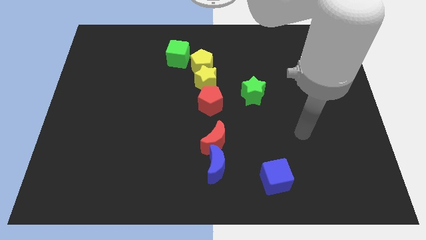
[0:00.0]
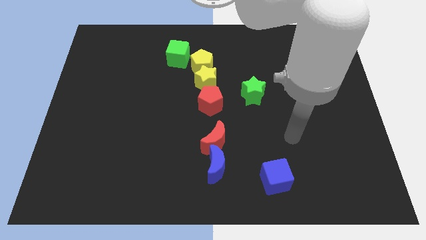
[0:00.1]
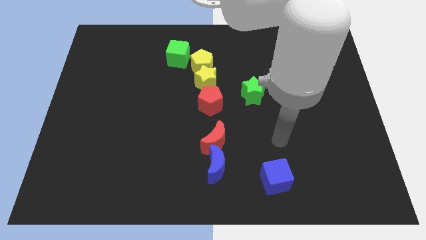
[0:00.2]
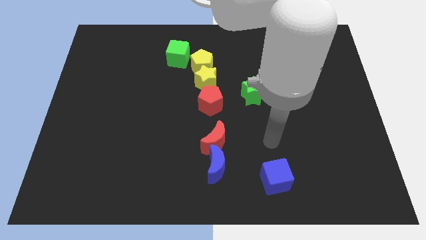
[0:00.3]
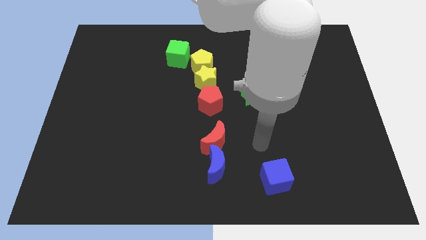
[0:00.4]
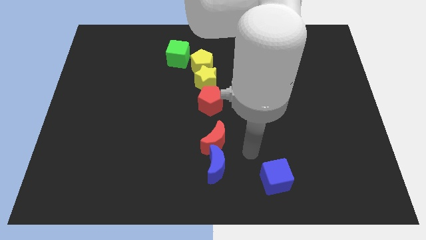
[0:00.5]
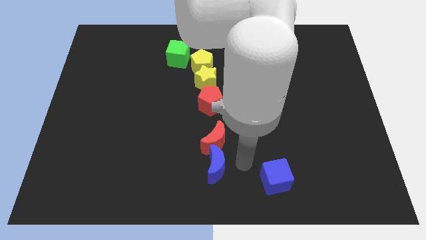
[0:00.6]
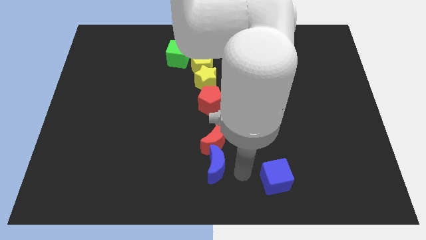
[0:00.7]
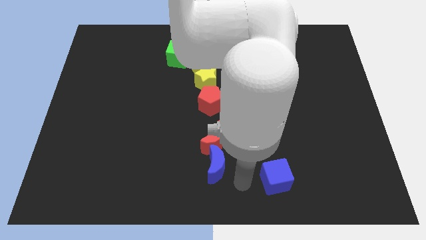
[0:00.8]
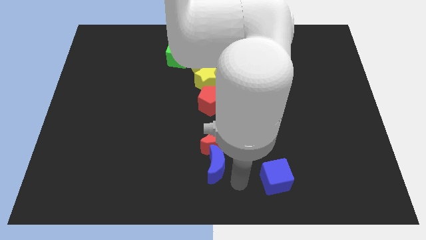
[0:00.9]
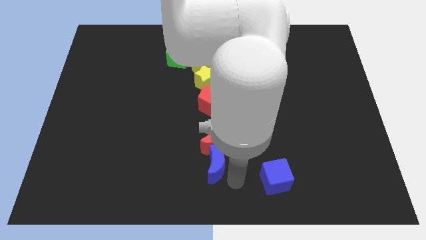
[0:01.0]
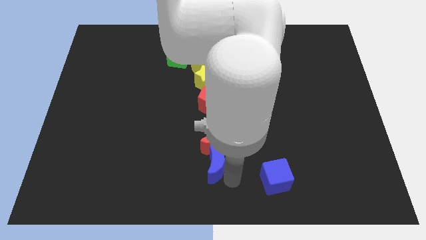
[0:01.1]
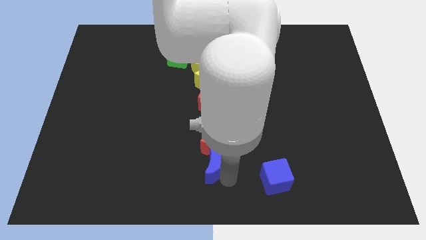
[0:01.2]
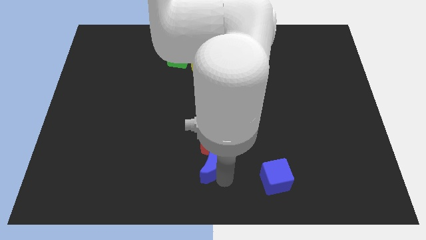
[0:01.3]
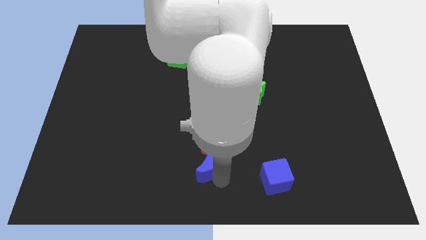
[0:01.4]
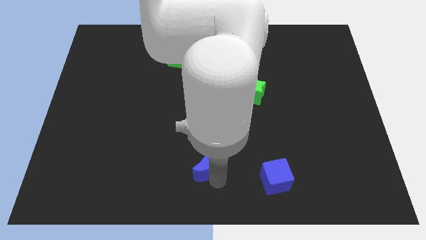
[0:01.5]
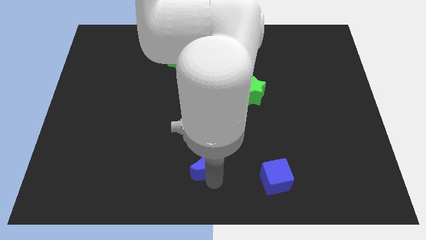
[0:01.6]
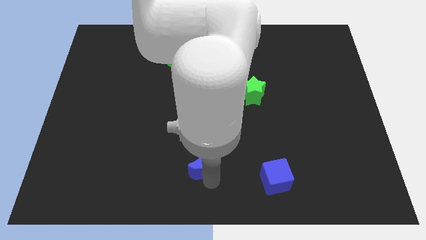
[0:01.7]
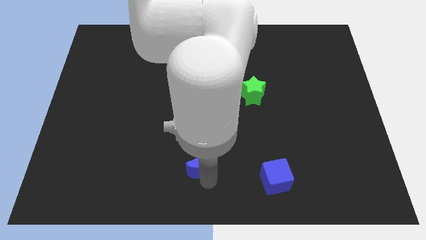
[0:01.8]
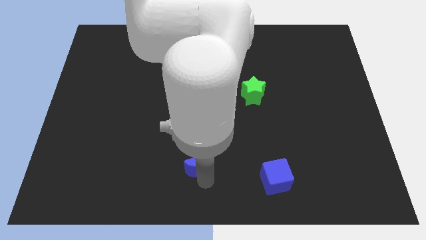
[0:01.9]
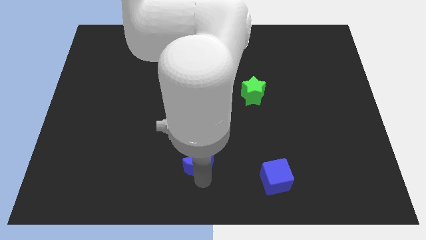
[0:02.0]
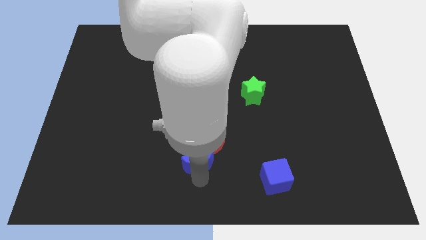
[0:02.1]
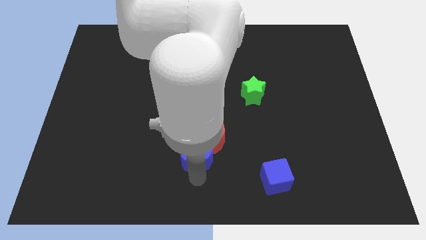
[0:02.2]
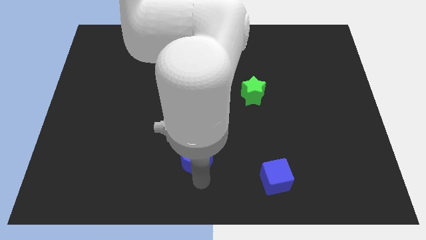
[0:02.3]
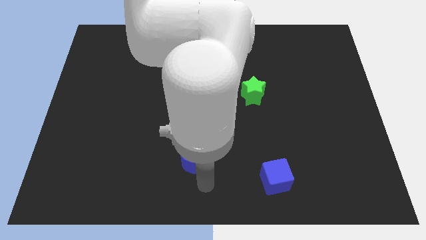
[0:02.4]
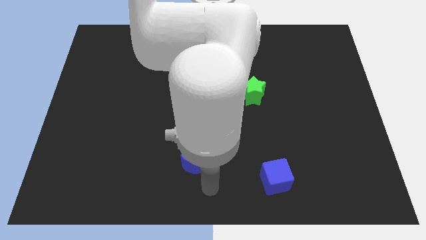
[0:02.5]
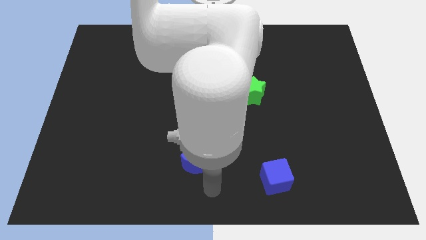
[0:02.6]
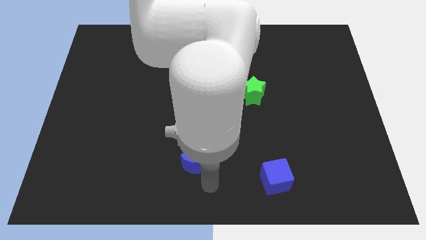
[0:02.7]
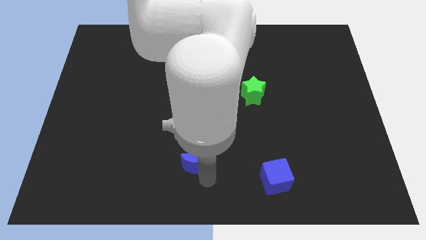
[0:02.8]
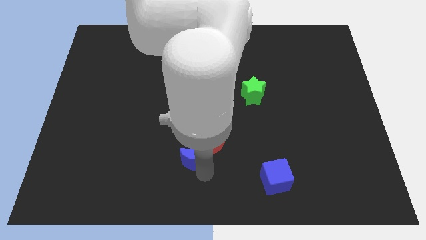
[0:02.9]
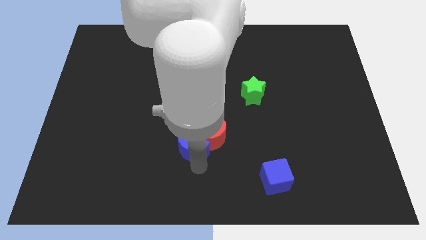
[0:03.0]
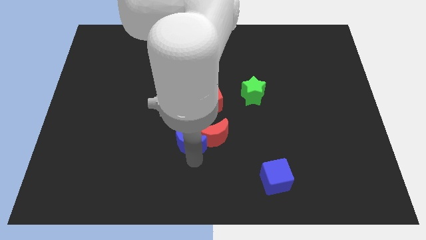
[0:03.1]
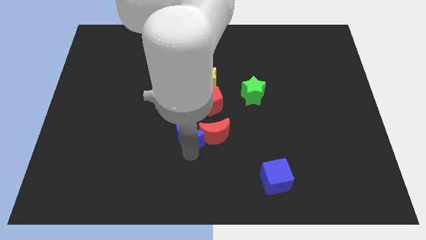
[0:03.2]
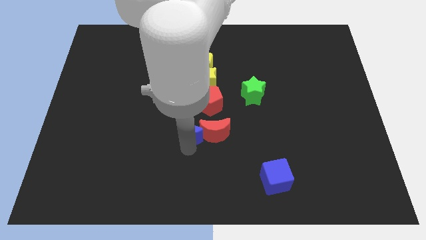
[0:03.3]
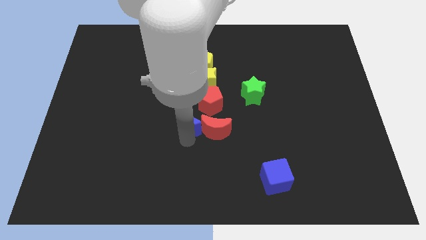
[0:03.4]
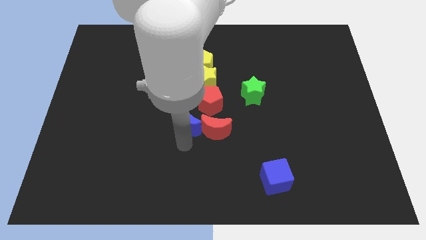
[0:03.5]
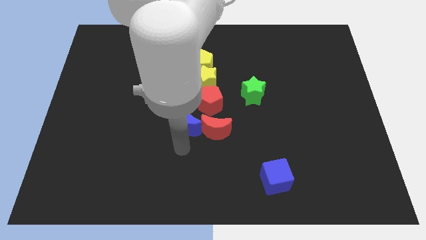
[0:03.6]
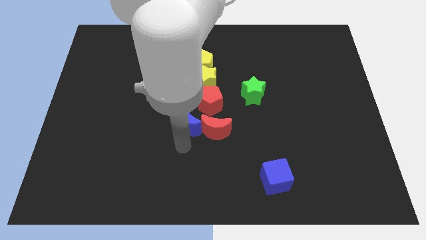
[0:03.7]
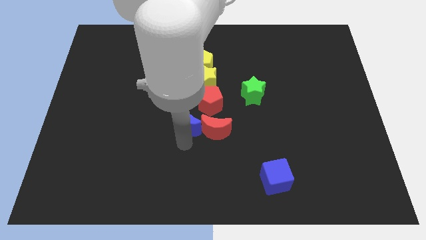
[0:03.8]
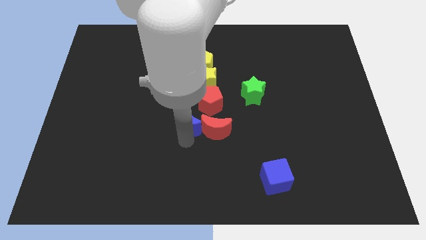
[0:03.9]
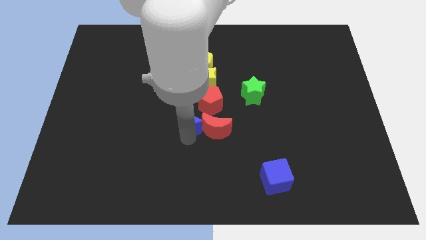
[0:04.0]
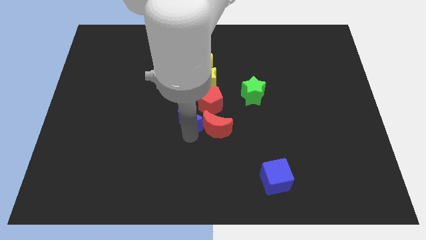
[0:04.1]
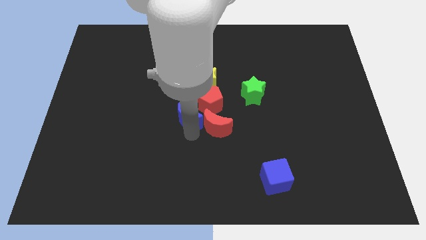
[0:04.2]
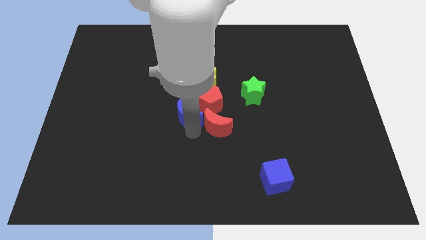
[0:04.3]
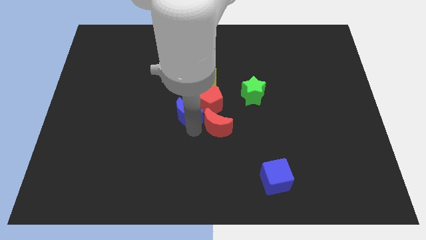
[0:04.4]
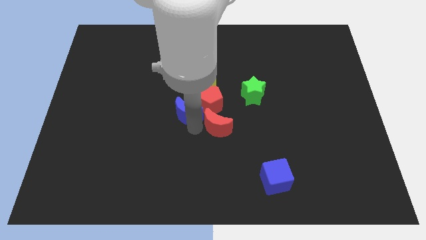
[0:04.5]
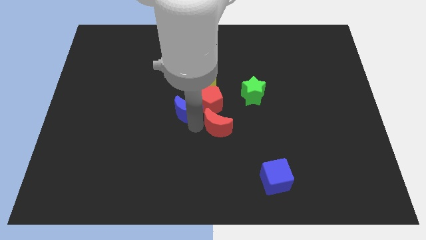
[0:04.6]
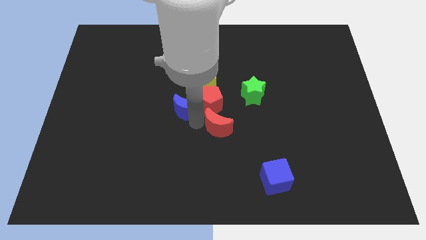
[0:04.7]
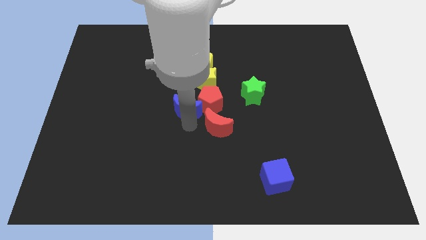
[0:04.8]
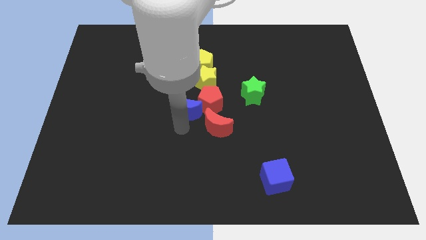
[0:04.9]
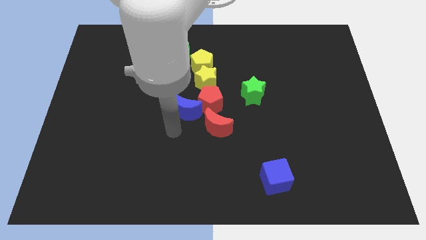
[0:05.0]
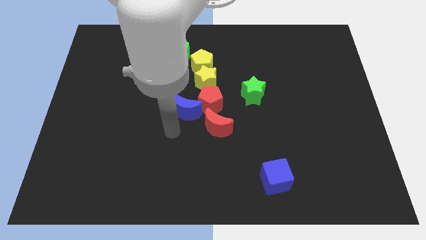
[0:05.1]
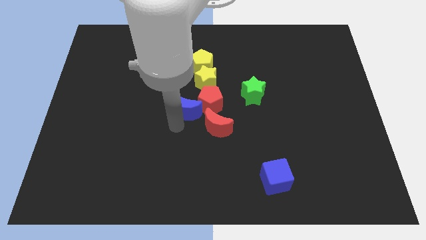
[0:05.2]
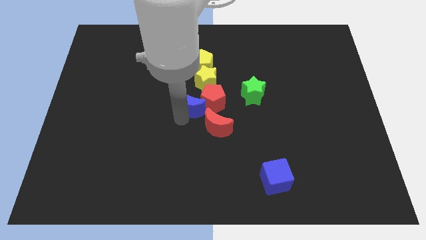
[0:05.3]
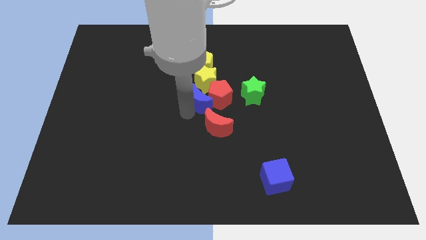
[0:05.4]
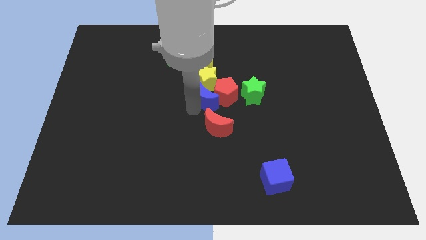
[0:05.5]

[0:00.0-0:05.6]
put the blue moon close to the yellow star

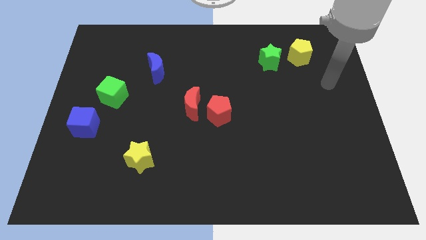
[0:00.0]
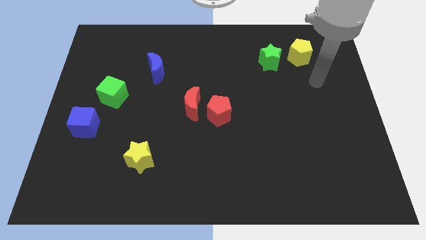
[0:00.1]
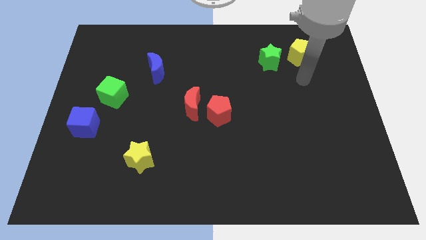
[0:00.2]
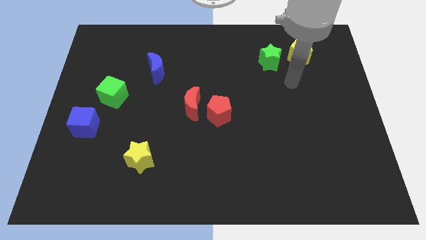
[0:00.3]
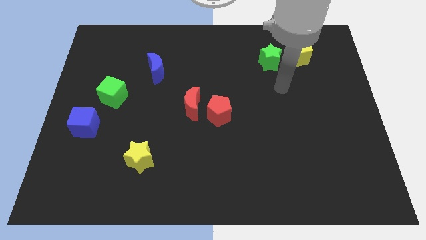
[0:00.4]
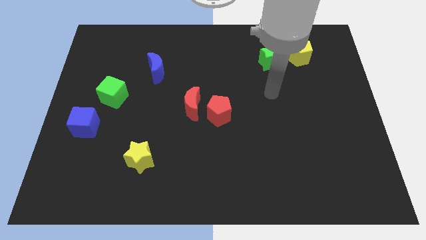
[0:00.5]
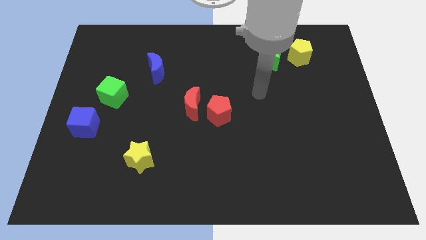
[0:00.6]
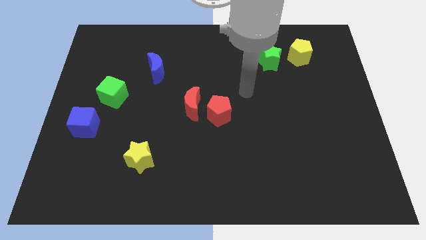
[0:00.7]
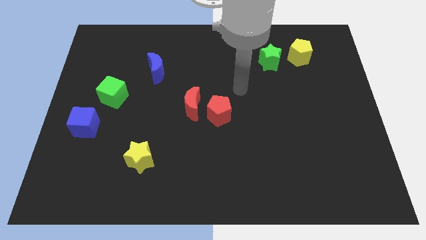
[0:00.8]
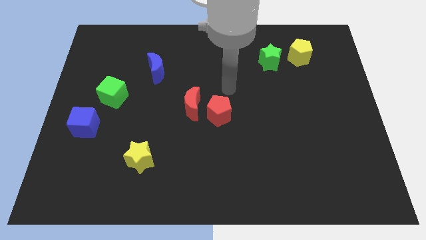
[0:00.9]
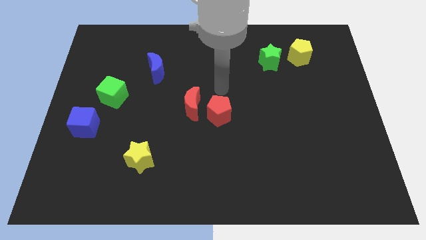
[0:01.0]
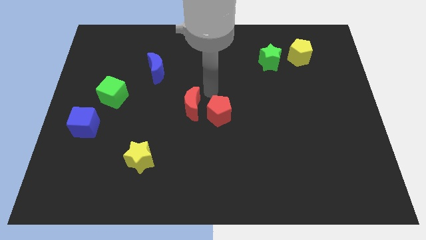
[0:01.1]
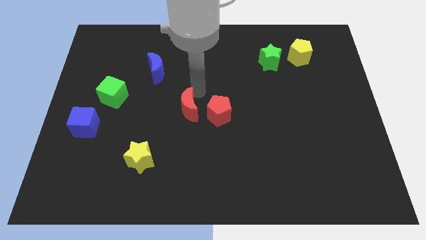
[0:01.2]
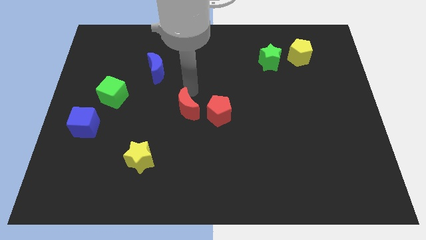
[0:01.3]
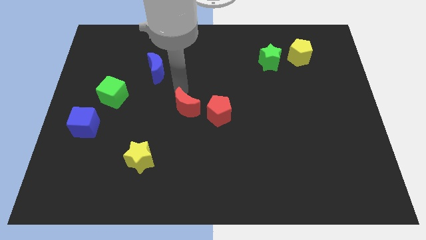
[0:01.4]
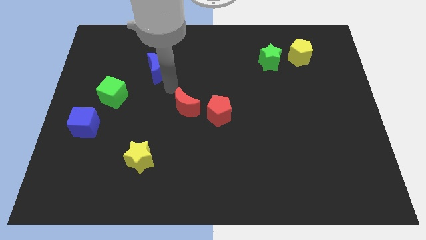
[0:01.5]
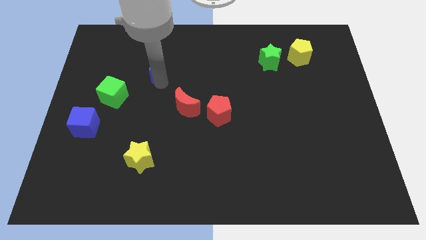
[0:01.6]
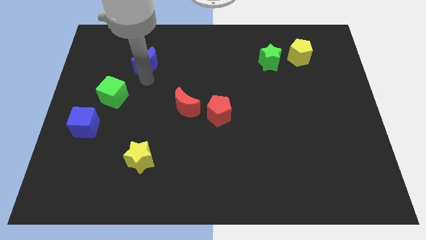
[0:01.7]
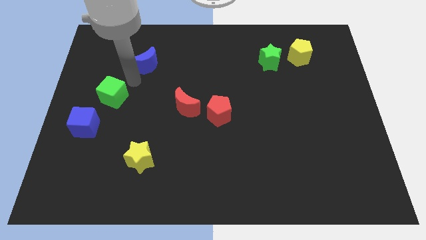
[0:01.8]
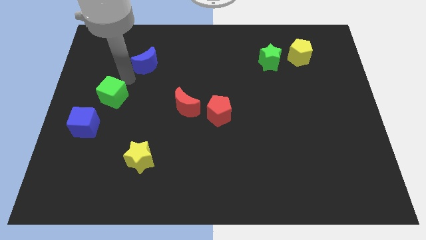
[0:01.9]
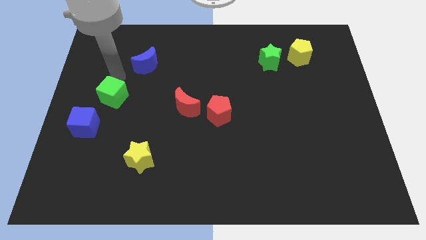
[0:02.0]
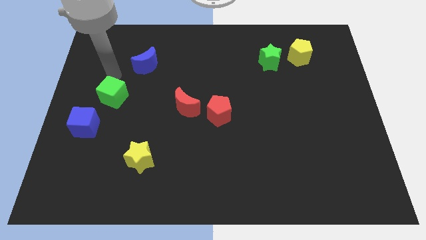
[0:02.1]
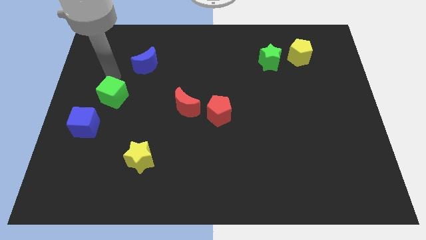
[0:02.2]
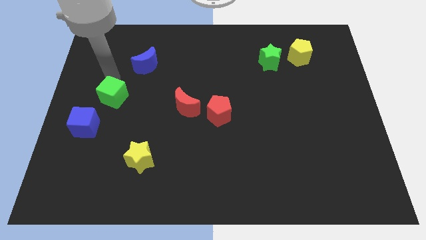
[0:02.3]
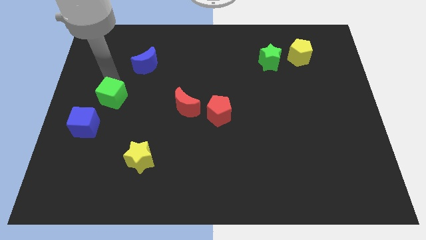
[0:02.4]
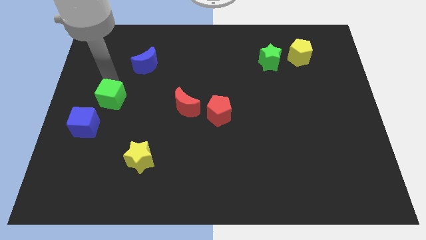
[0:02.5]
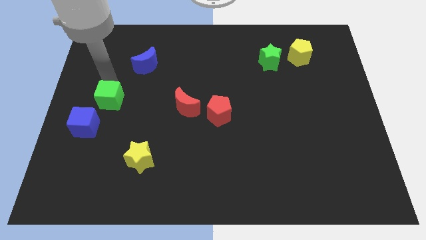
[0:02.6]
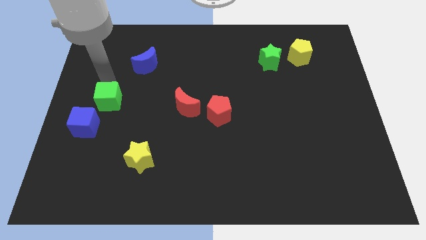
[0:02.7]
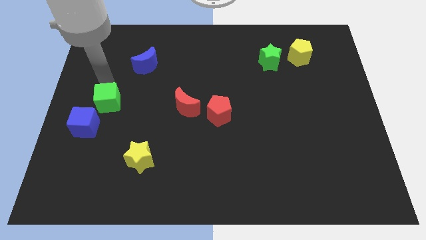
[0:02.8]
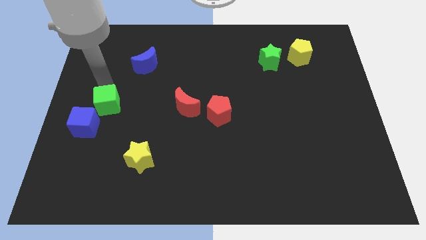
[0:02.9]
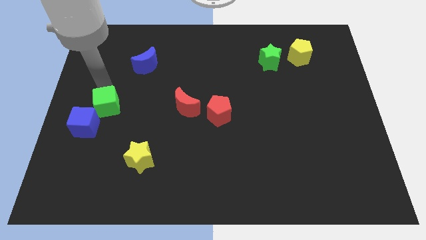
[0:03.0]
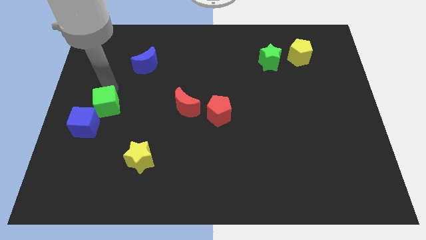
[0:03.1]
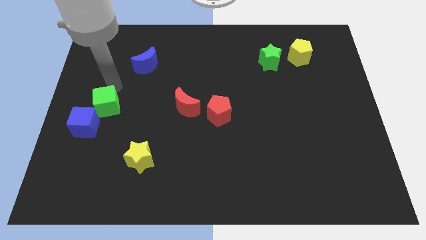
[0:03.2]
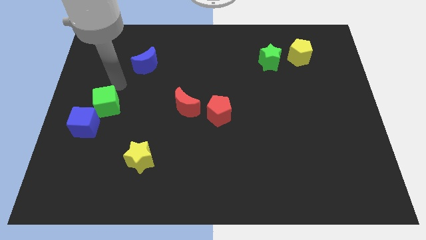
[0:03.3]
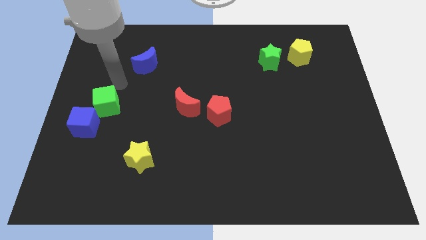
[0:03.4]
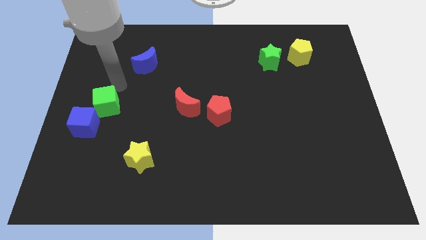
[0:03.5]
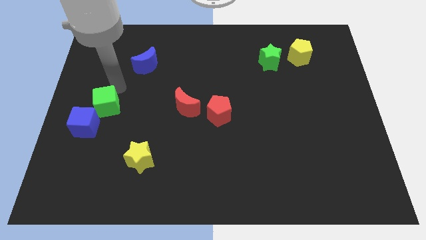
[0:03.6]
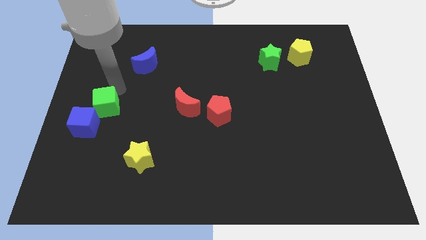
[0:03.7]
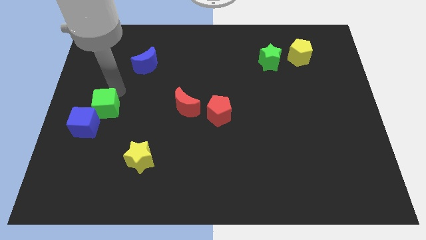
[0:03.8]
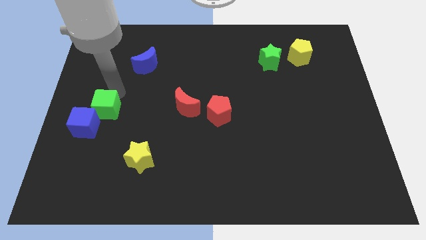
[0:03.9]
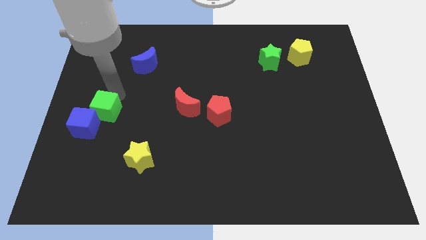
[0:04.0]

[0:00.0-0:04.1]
put the green cube to the blue cube
